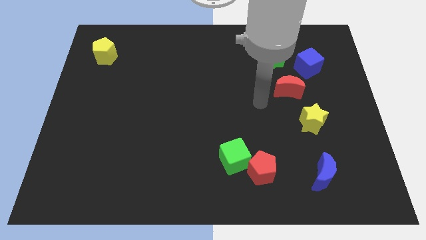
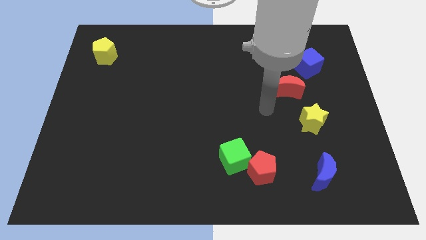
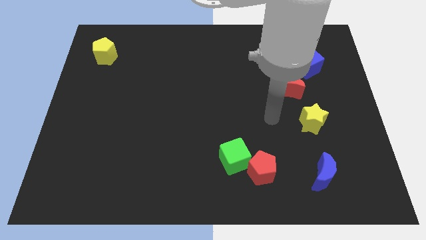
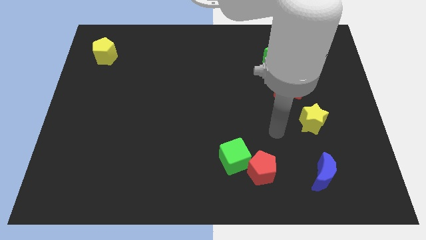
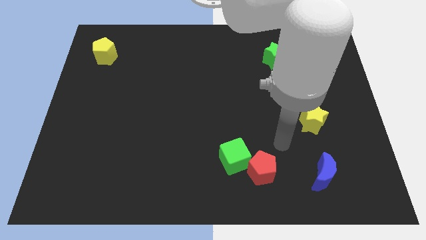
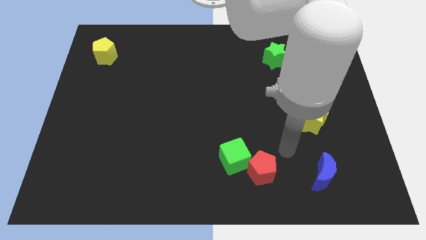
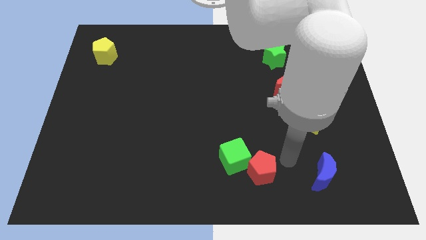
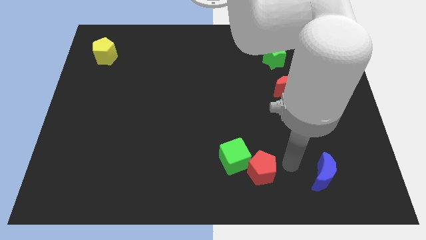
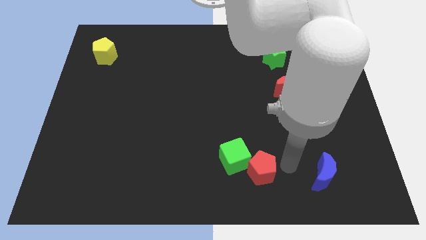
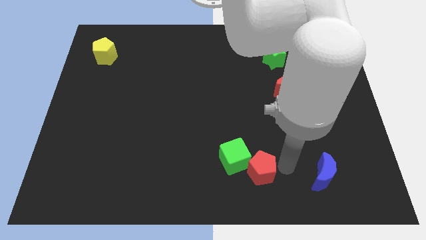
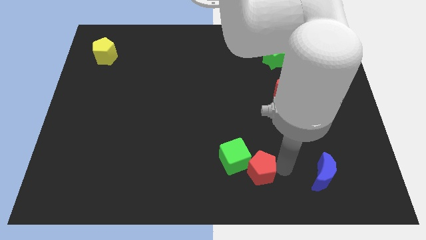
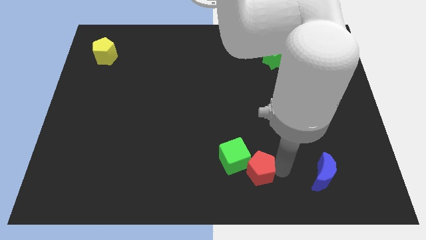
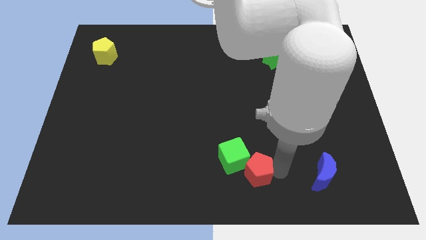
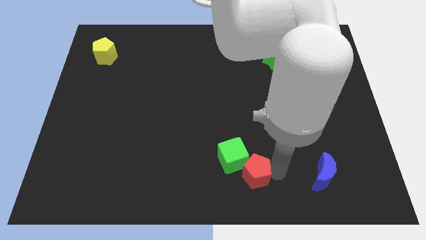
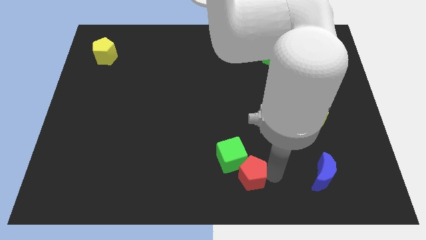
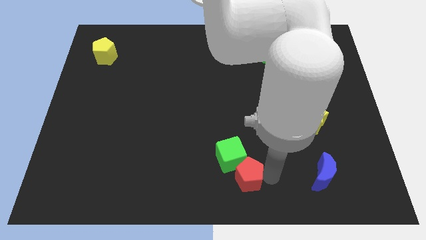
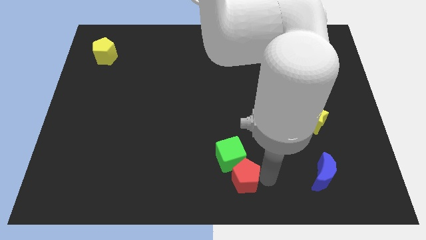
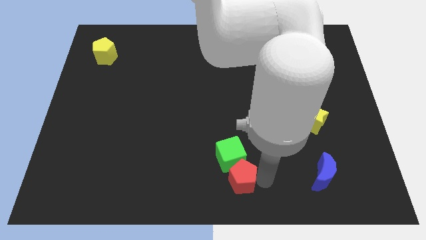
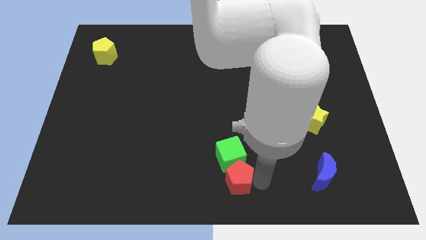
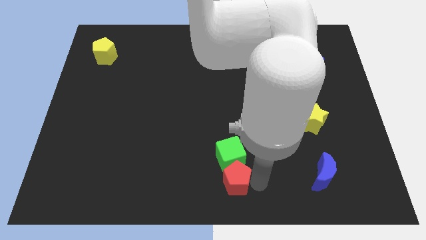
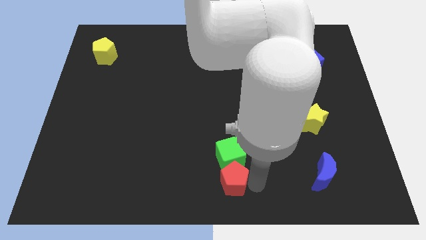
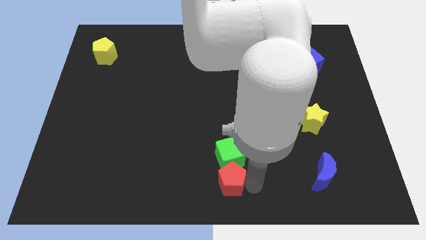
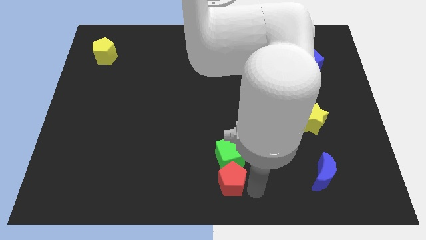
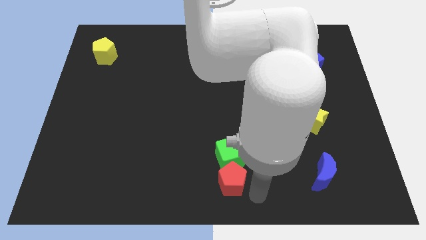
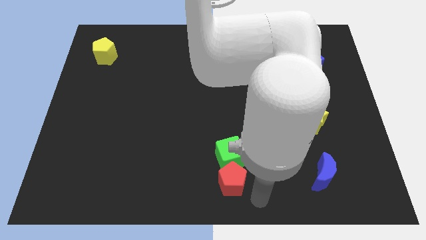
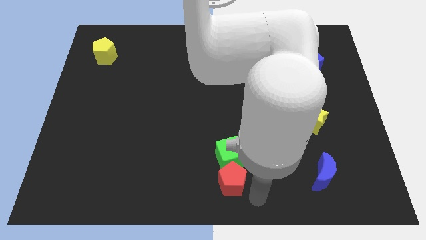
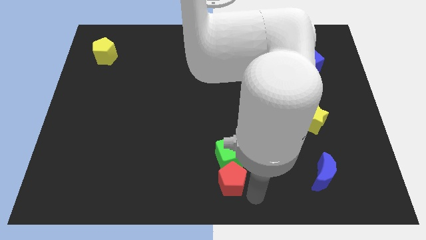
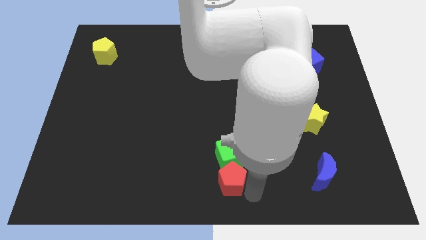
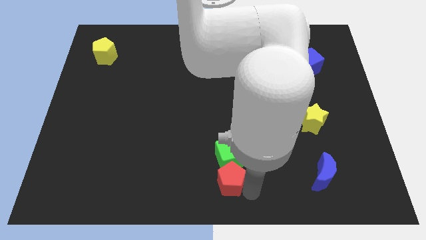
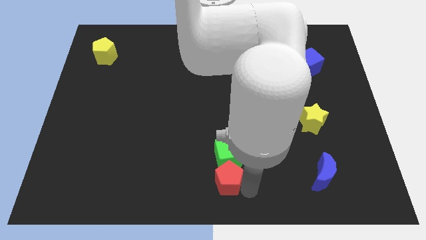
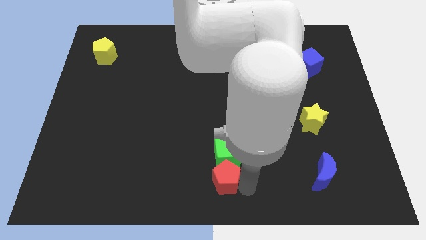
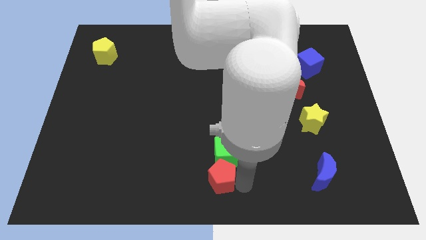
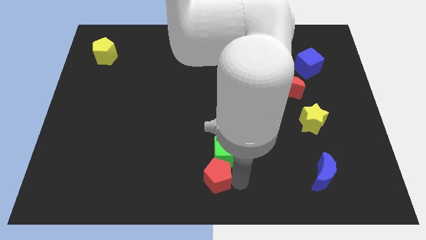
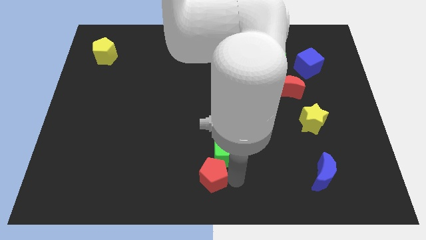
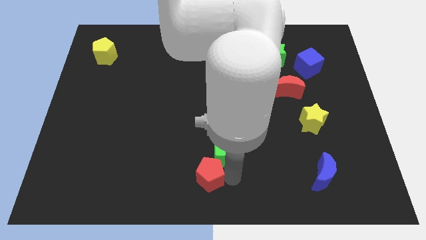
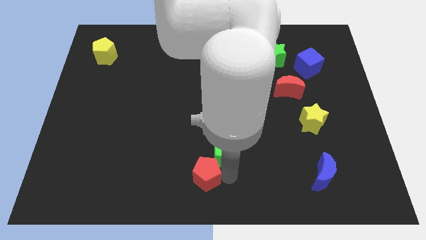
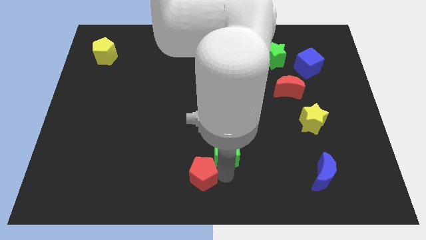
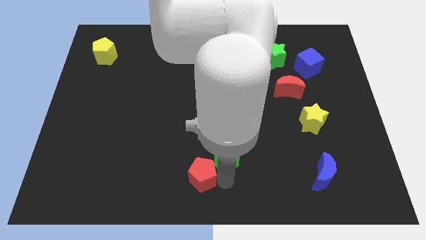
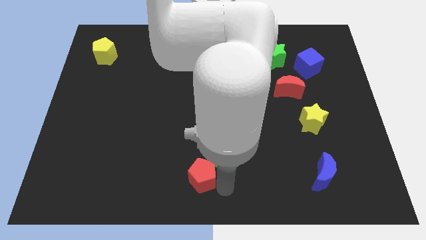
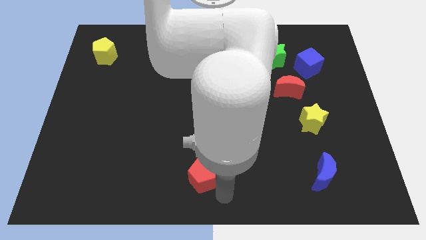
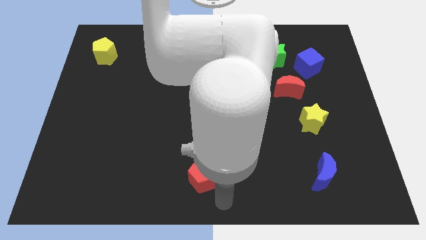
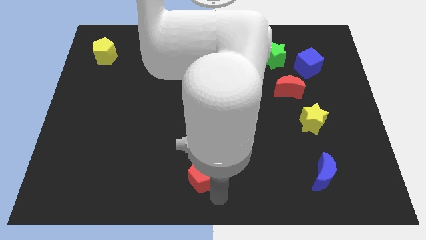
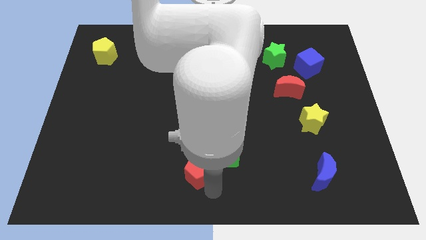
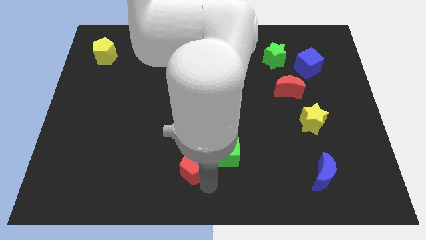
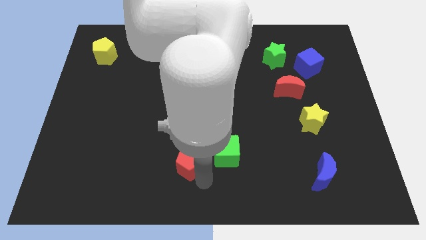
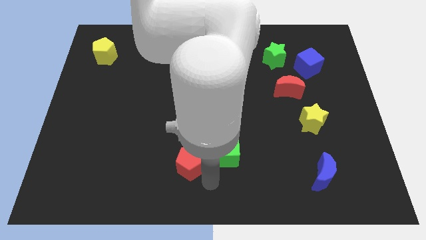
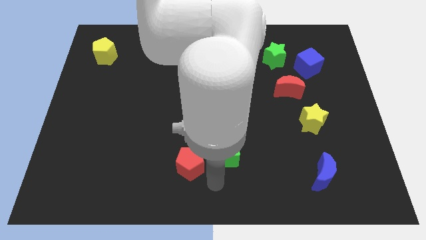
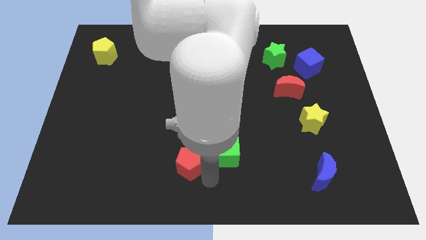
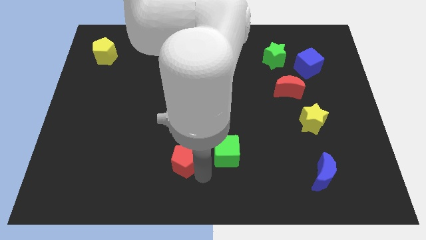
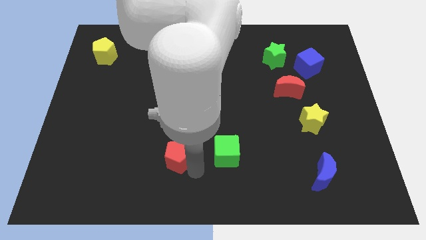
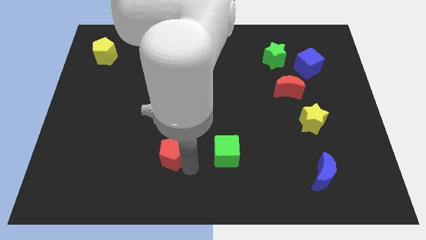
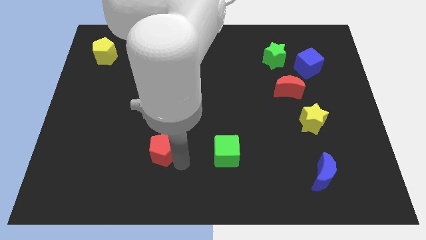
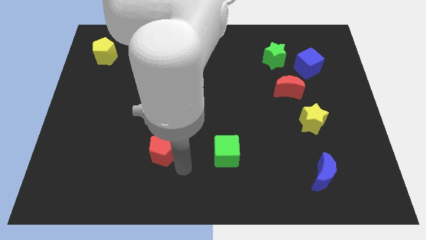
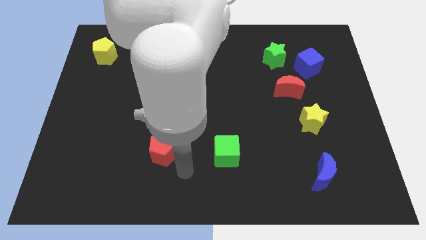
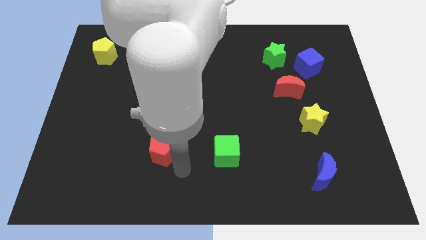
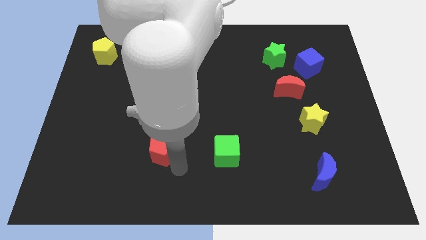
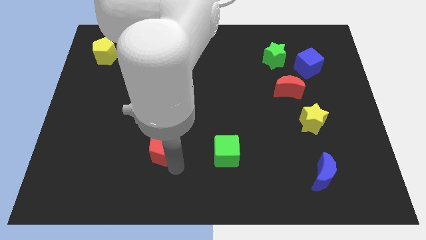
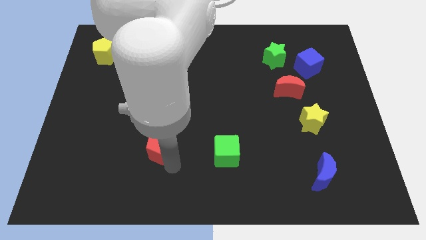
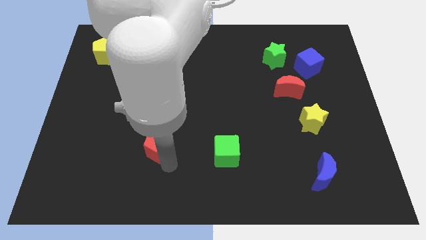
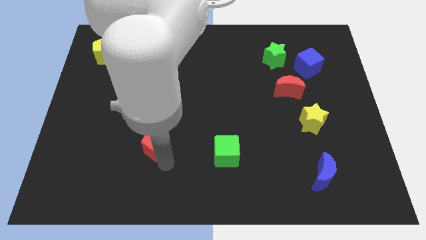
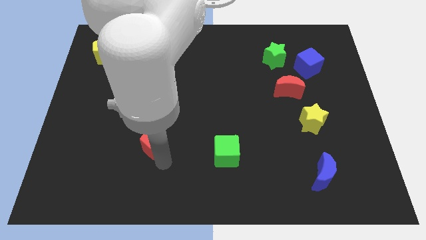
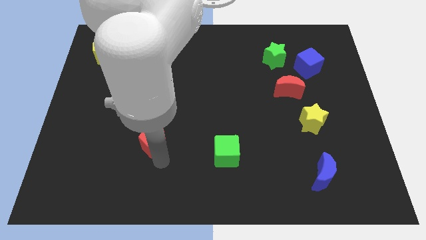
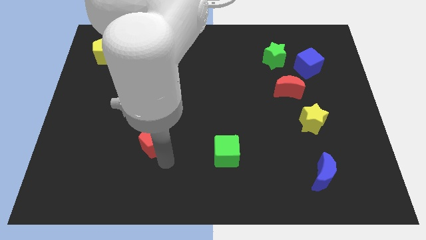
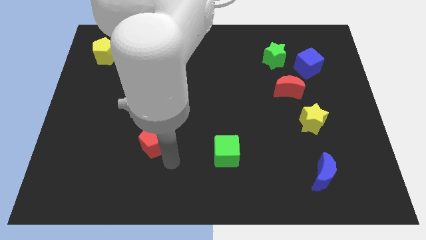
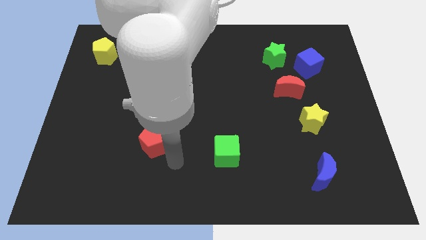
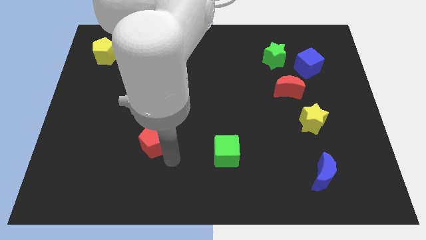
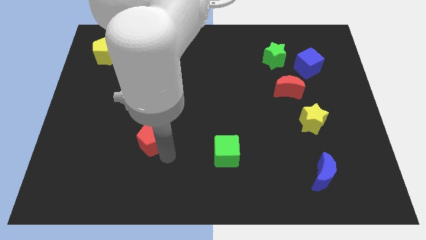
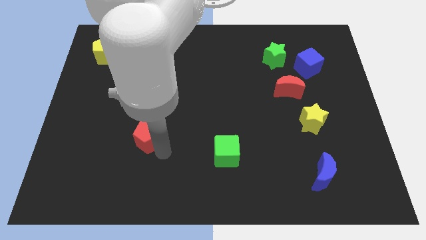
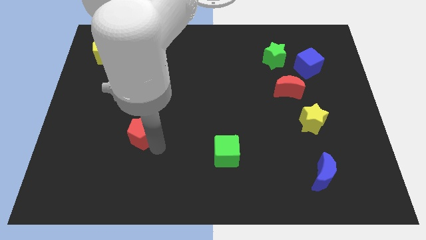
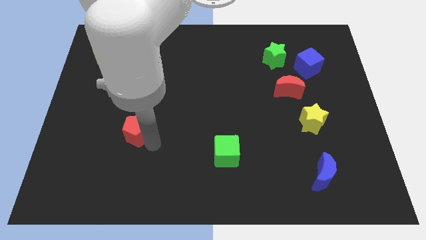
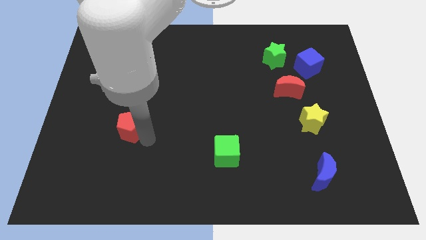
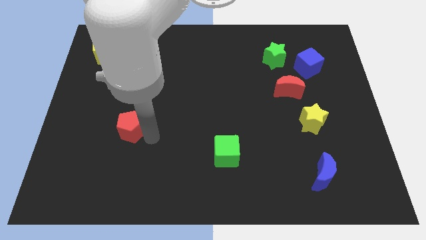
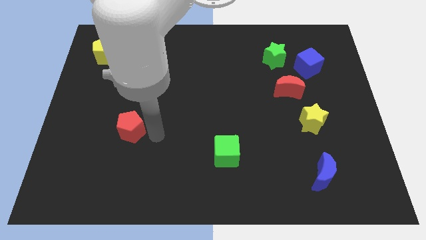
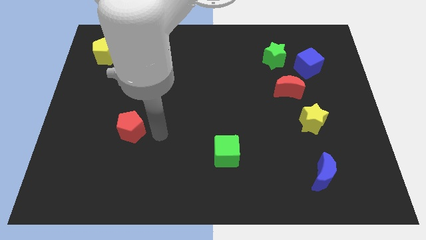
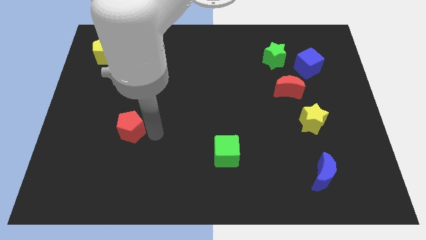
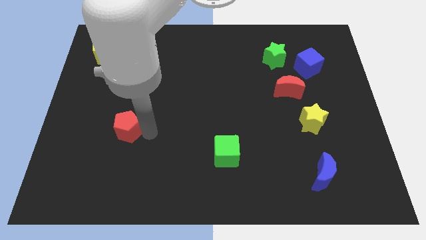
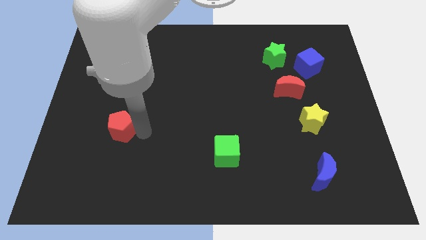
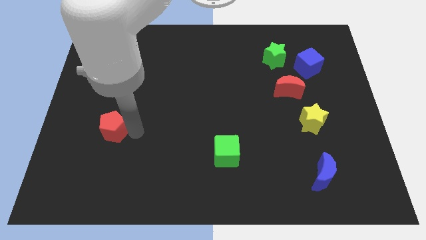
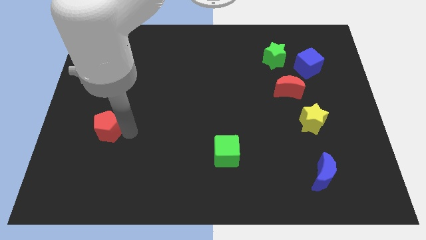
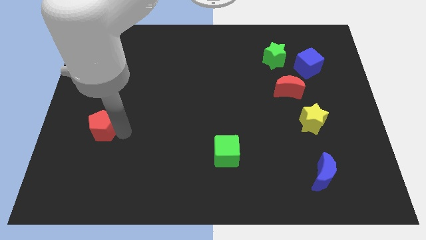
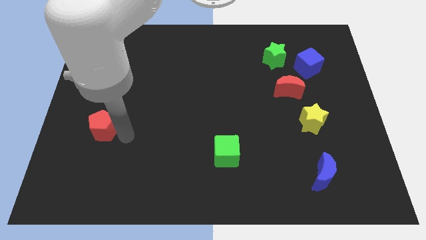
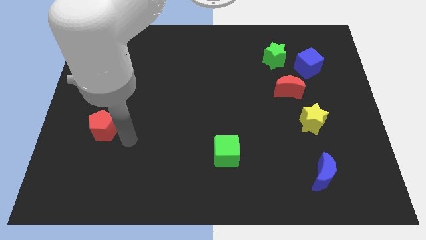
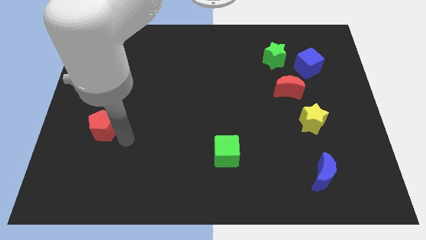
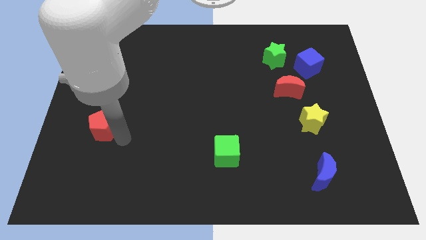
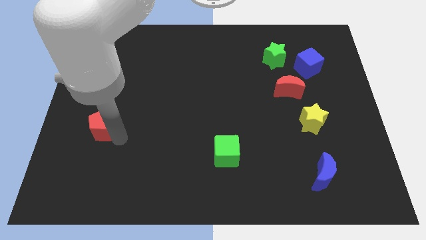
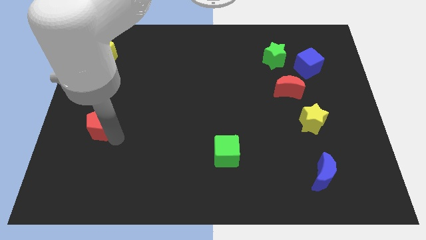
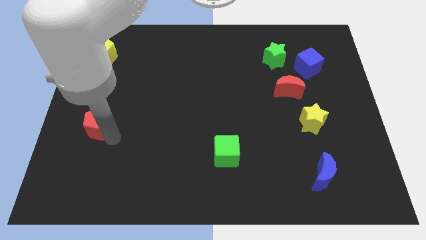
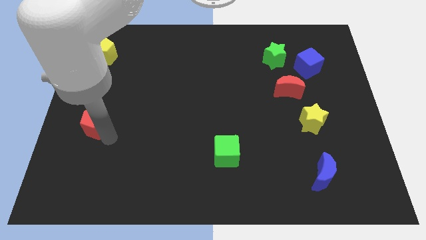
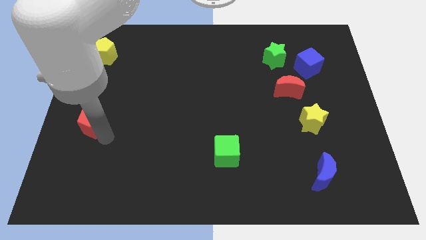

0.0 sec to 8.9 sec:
put the red pentagon to the left side
